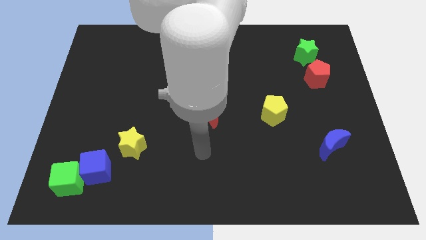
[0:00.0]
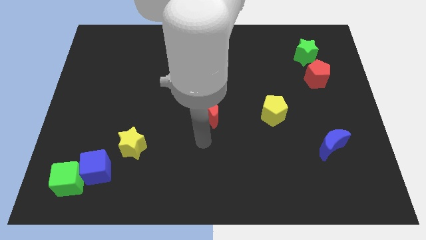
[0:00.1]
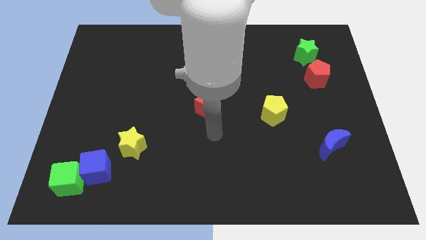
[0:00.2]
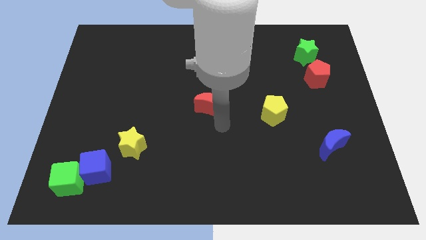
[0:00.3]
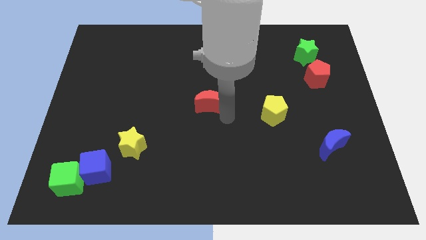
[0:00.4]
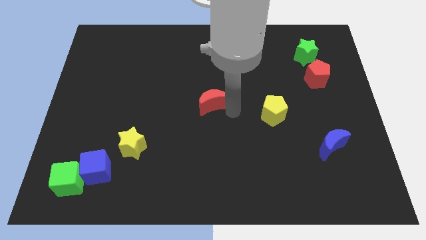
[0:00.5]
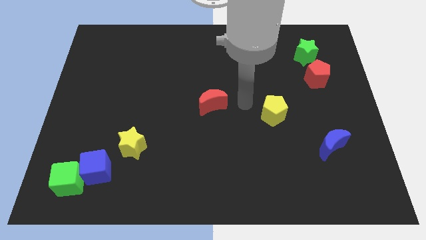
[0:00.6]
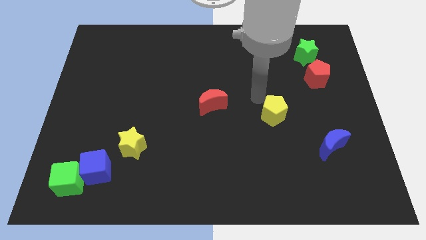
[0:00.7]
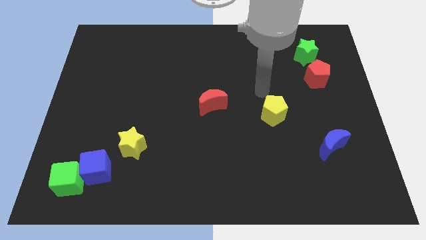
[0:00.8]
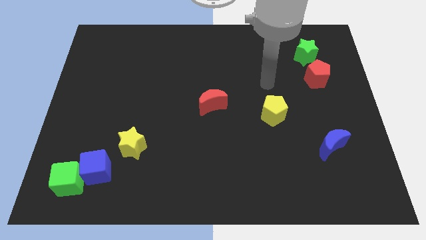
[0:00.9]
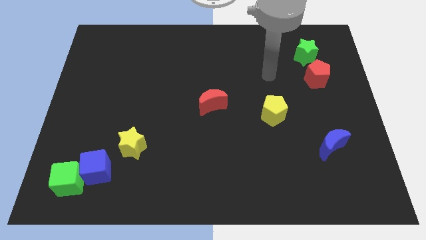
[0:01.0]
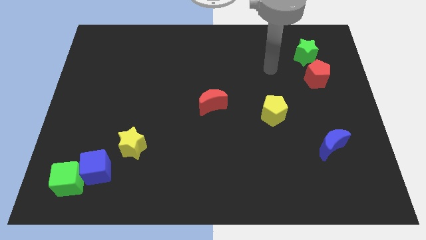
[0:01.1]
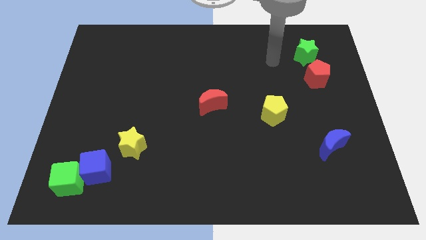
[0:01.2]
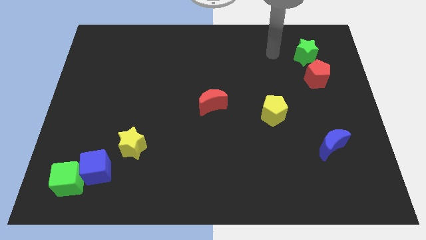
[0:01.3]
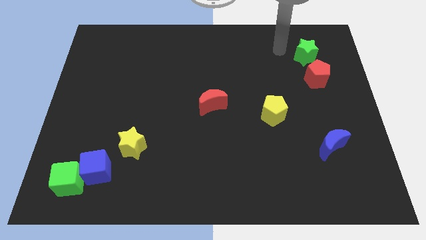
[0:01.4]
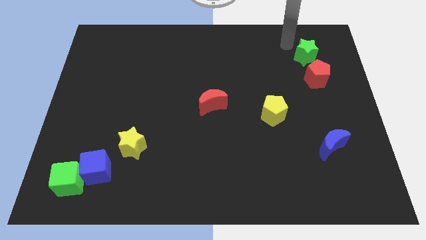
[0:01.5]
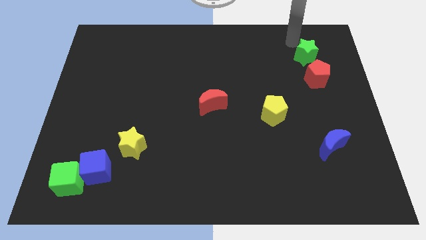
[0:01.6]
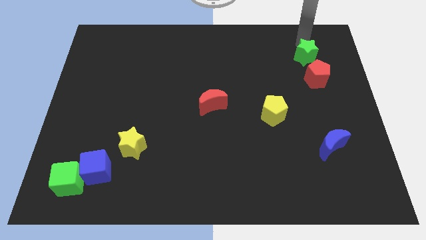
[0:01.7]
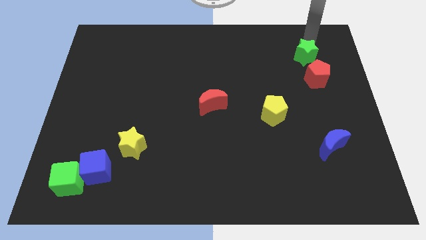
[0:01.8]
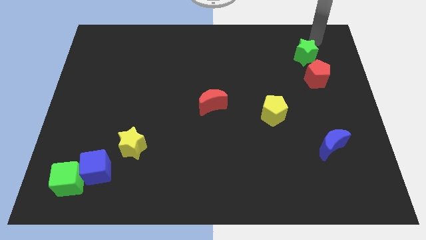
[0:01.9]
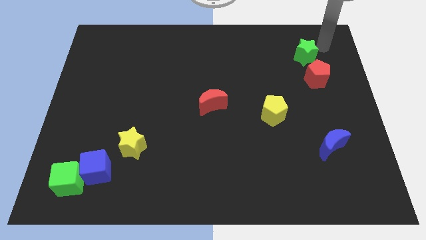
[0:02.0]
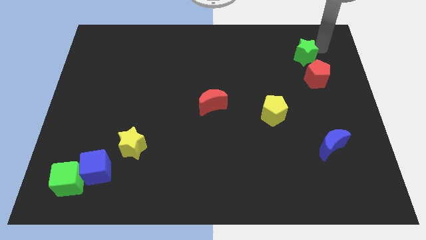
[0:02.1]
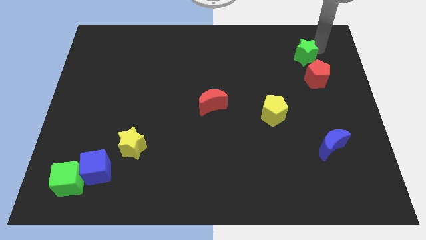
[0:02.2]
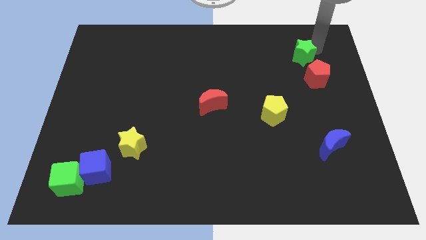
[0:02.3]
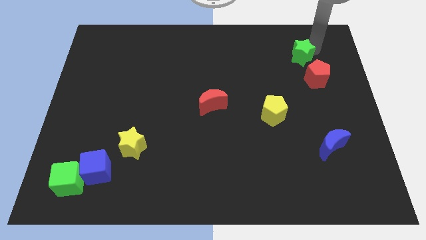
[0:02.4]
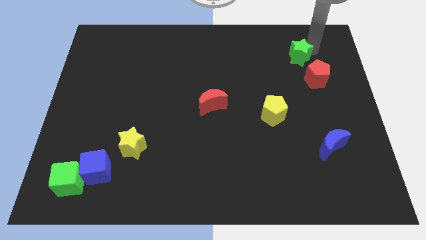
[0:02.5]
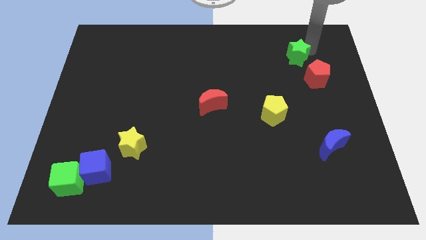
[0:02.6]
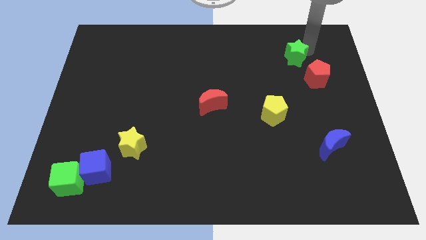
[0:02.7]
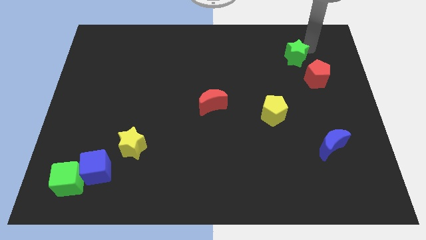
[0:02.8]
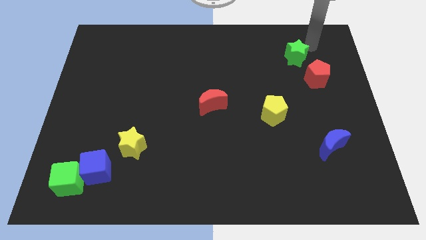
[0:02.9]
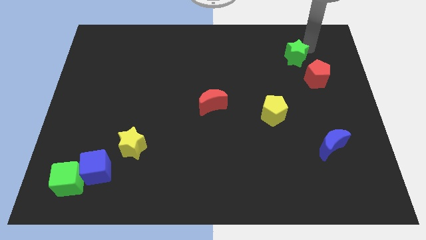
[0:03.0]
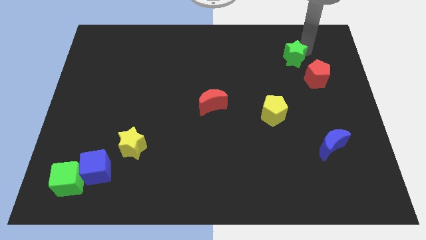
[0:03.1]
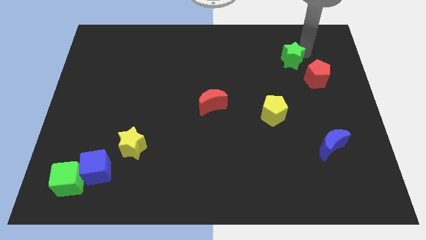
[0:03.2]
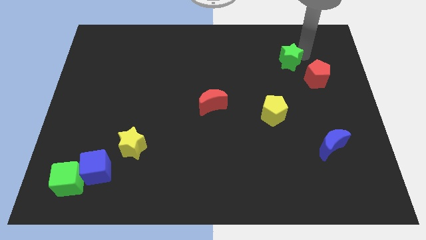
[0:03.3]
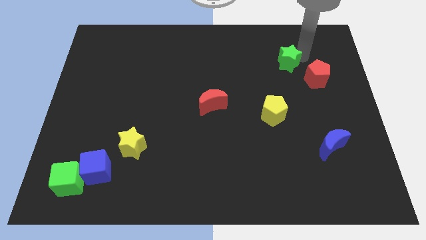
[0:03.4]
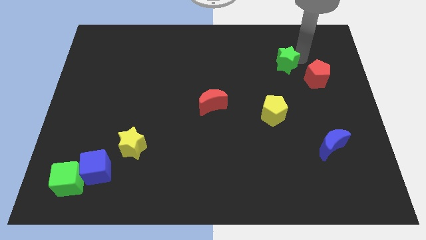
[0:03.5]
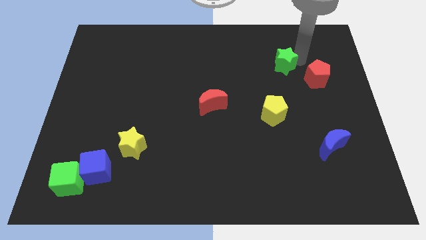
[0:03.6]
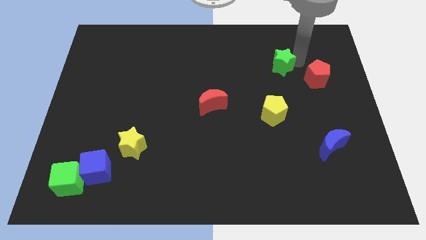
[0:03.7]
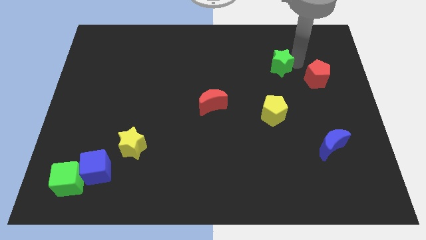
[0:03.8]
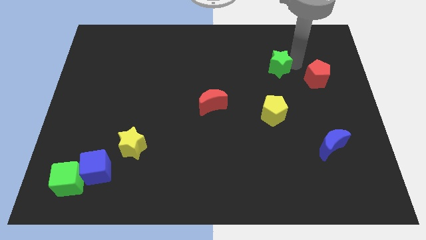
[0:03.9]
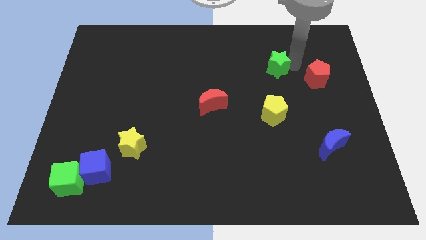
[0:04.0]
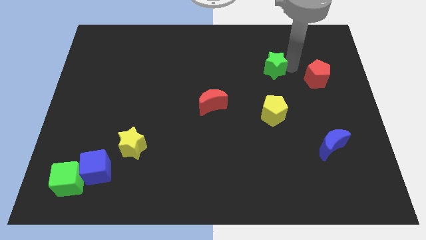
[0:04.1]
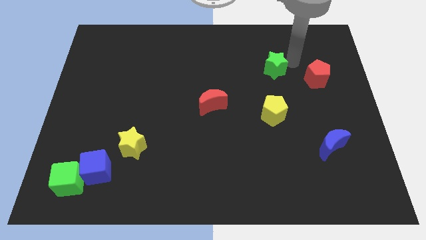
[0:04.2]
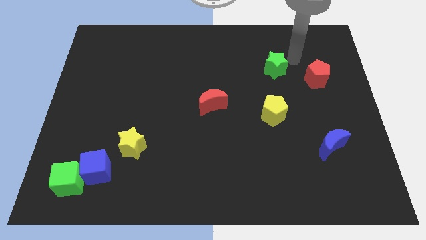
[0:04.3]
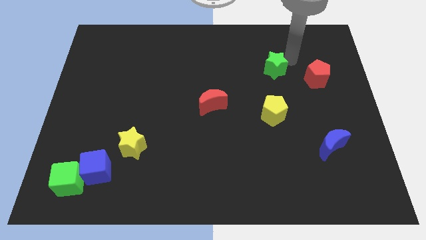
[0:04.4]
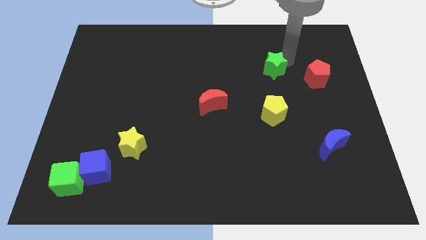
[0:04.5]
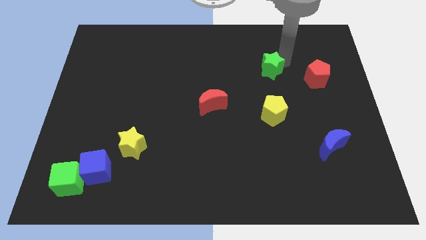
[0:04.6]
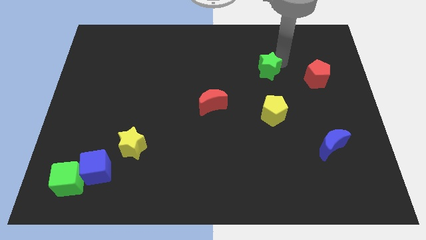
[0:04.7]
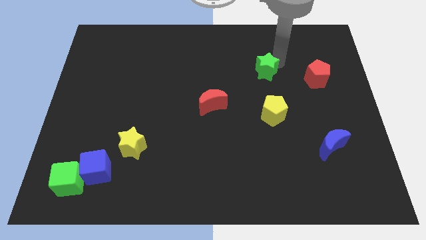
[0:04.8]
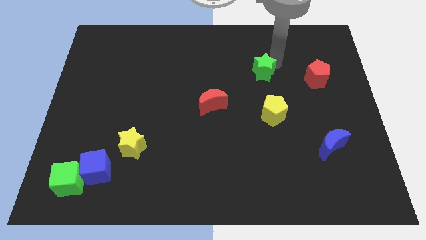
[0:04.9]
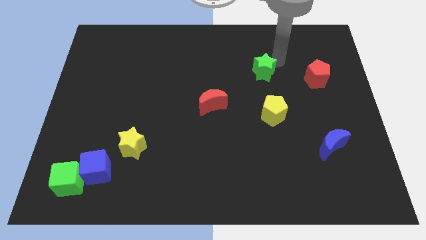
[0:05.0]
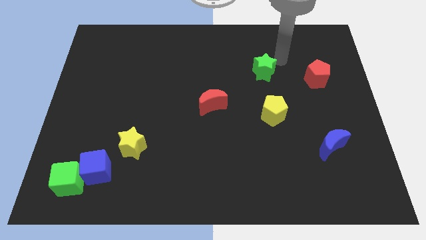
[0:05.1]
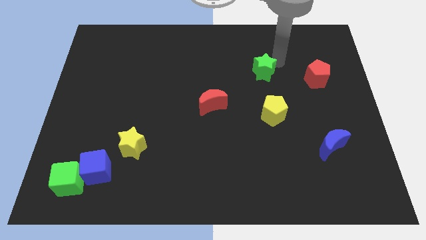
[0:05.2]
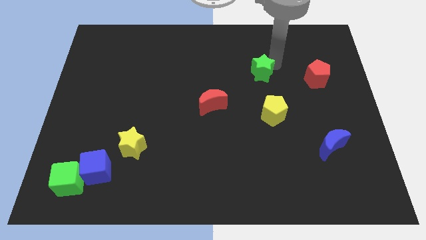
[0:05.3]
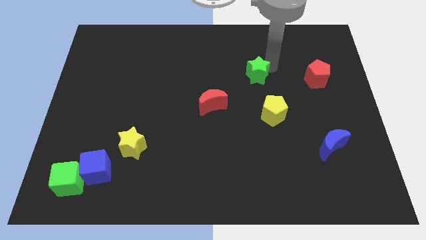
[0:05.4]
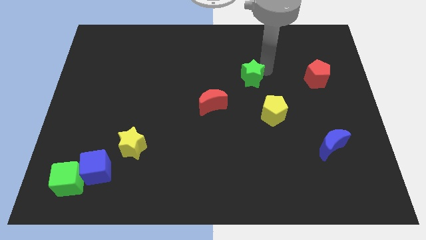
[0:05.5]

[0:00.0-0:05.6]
move the green star to the top right of the red moon

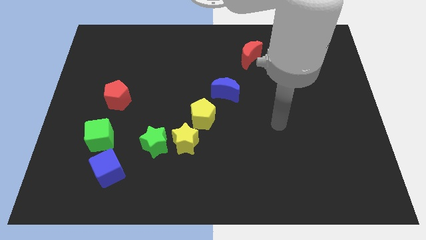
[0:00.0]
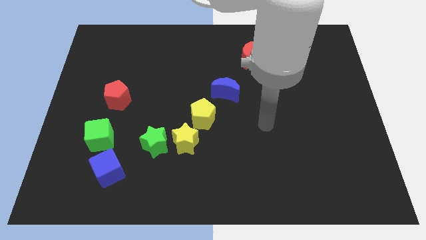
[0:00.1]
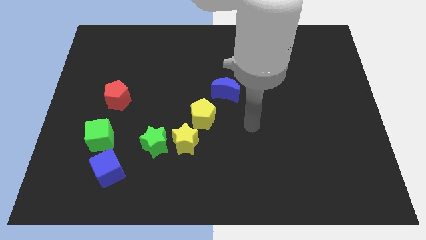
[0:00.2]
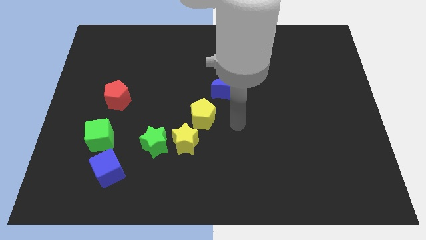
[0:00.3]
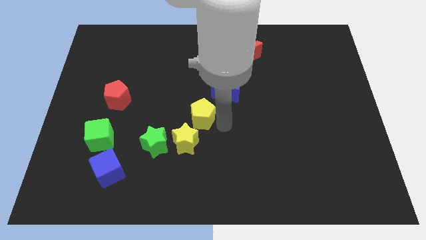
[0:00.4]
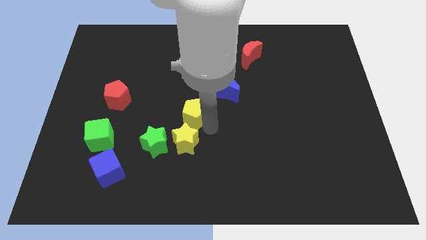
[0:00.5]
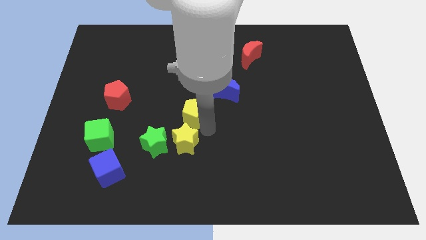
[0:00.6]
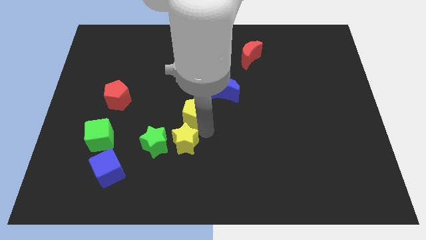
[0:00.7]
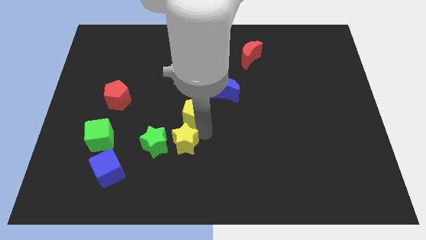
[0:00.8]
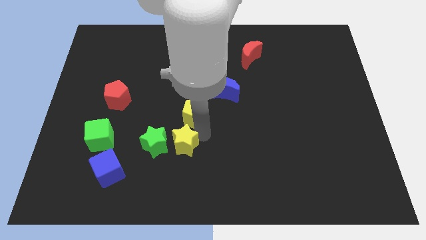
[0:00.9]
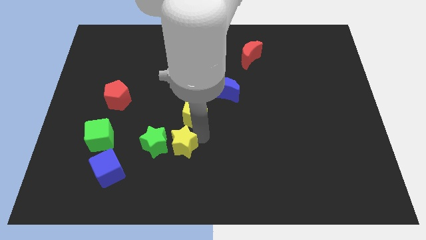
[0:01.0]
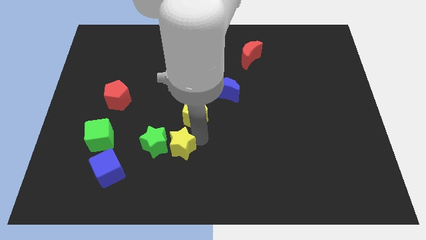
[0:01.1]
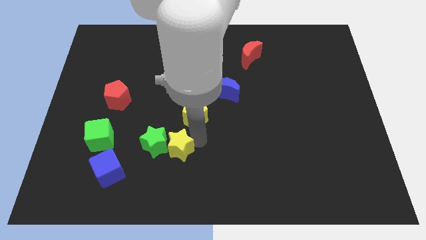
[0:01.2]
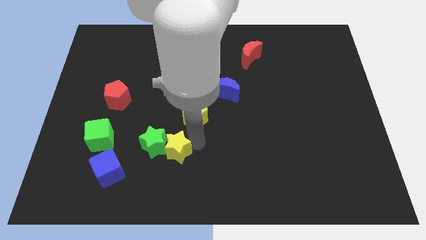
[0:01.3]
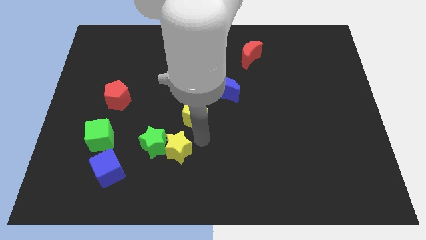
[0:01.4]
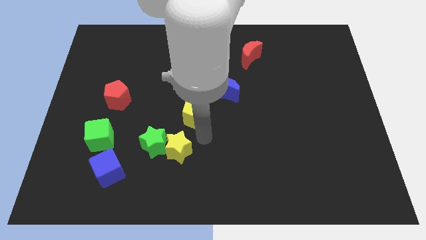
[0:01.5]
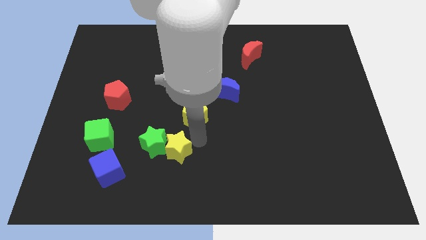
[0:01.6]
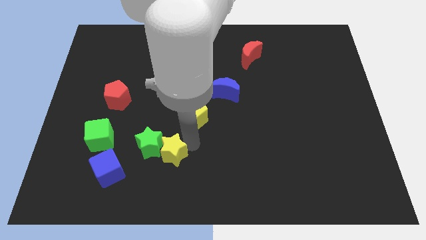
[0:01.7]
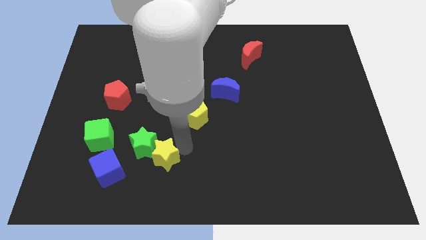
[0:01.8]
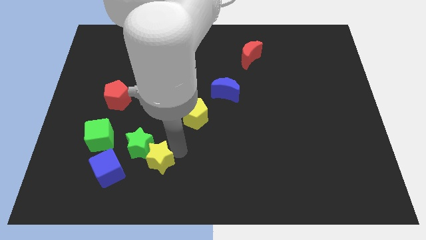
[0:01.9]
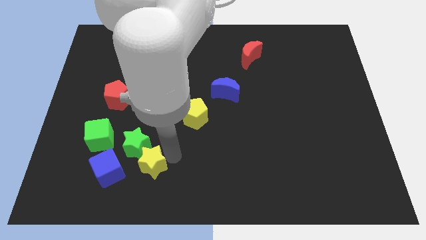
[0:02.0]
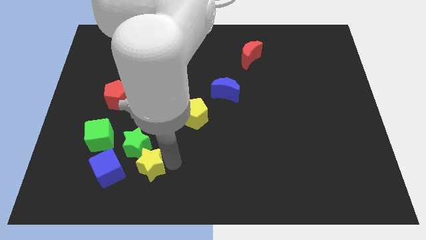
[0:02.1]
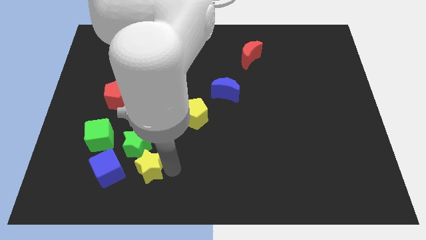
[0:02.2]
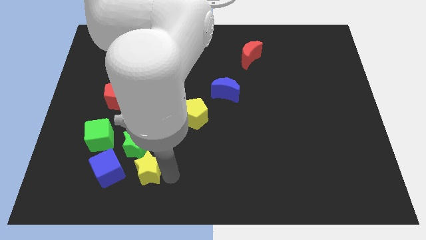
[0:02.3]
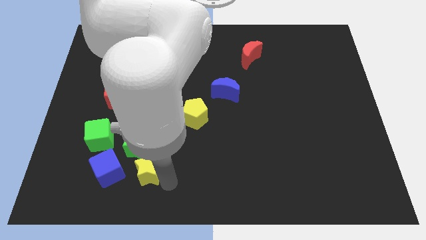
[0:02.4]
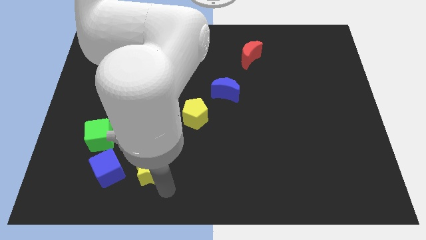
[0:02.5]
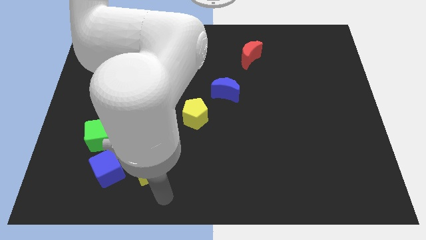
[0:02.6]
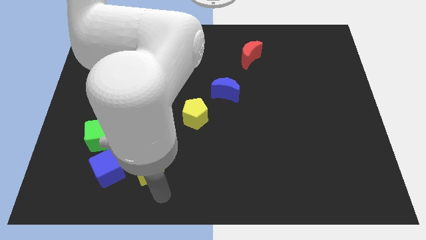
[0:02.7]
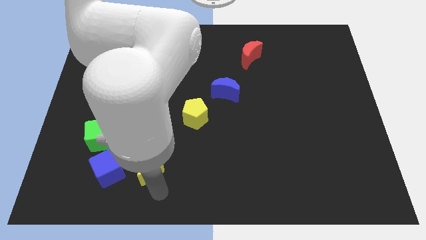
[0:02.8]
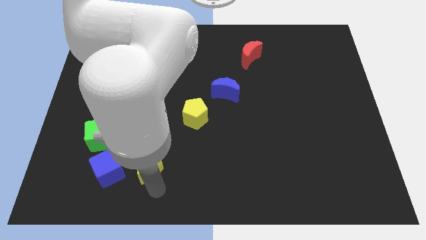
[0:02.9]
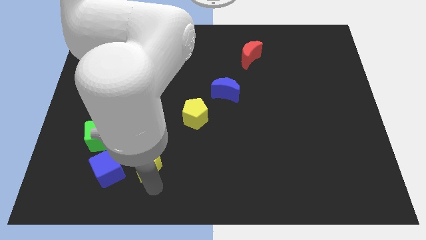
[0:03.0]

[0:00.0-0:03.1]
put the yellow star to the top right of the blue cube
